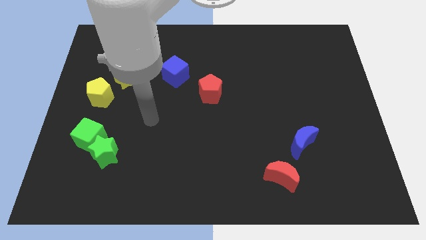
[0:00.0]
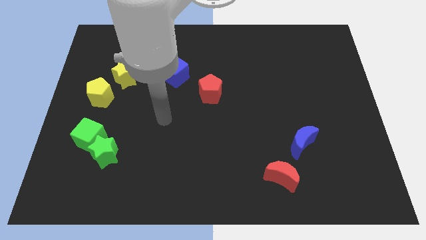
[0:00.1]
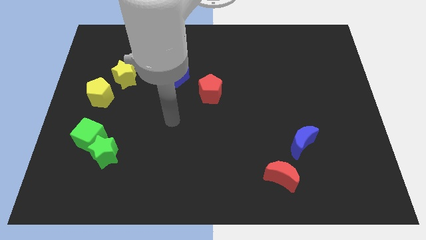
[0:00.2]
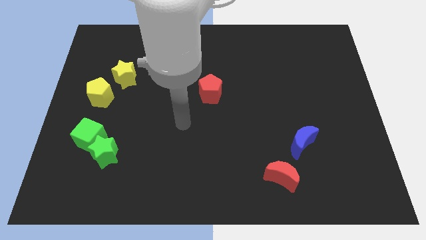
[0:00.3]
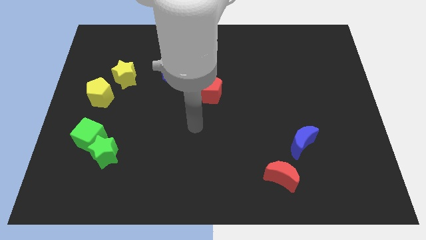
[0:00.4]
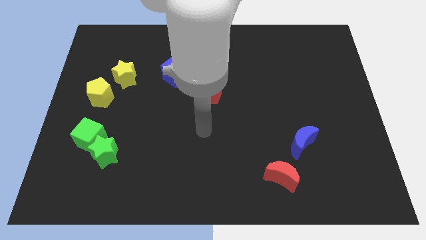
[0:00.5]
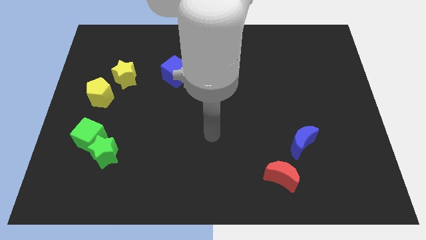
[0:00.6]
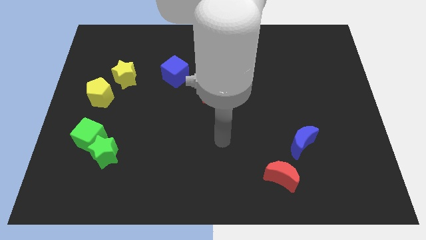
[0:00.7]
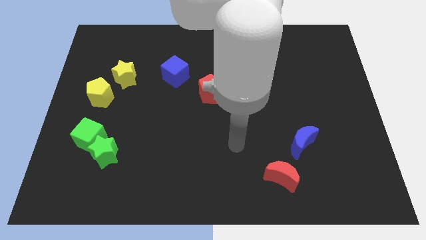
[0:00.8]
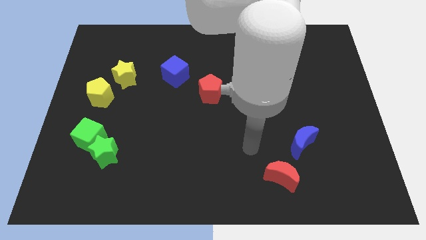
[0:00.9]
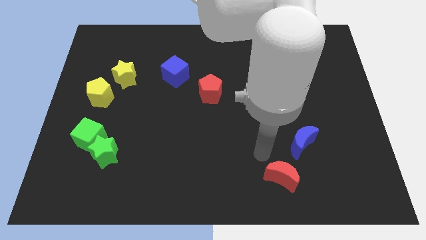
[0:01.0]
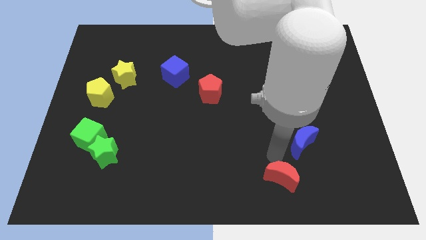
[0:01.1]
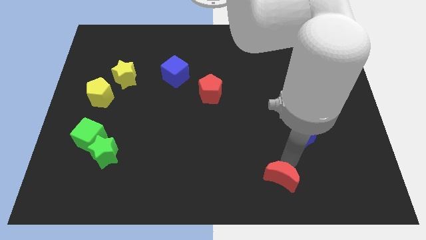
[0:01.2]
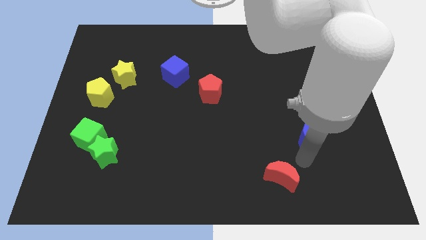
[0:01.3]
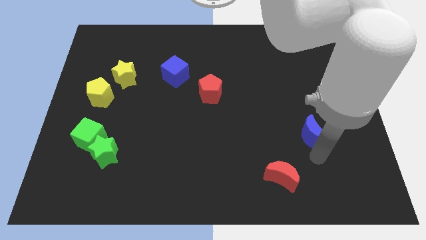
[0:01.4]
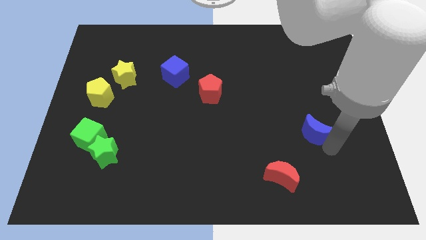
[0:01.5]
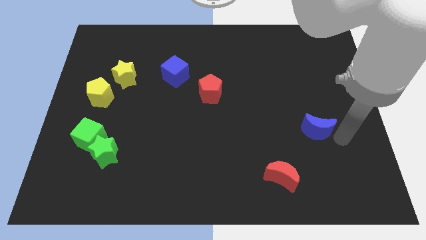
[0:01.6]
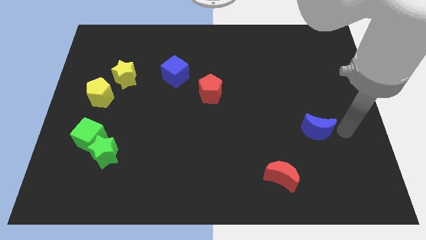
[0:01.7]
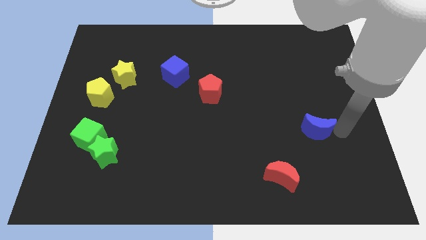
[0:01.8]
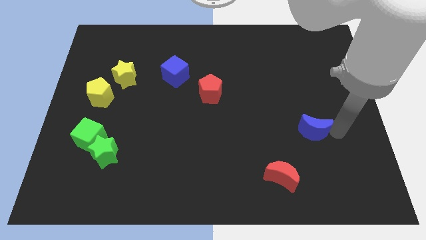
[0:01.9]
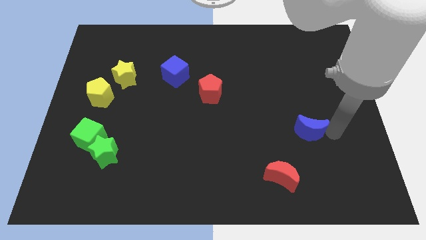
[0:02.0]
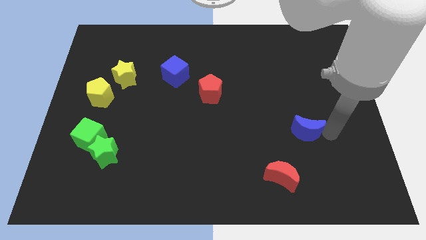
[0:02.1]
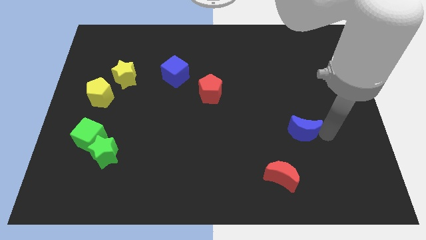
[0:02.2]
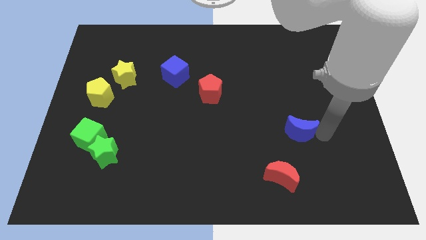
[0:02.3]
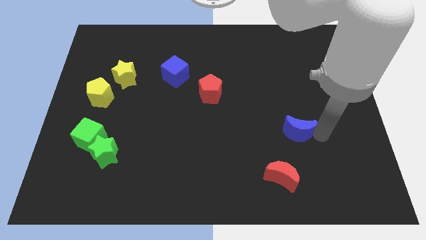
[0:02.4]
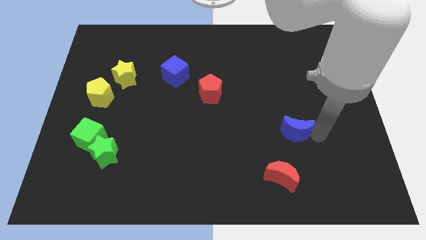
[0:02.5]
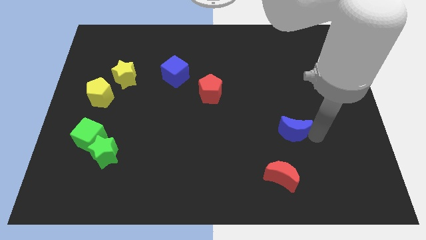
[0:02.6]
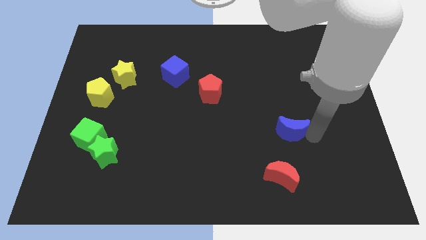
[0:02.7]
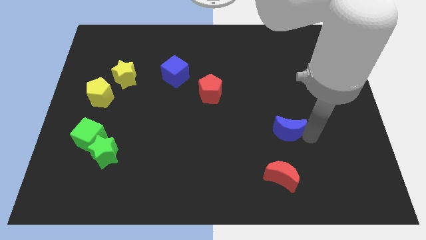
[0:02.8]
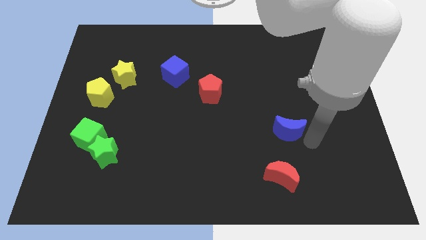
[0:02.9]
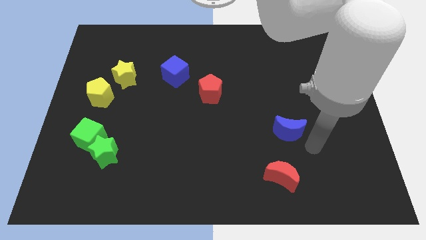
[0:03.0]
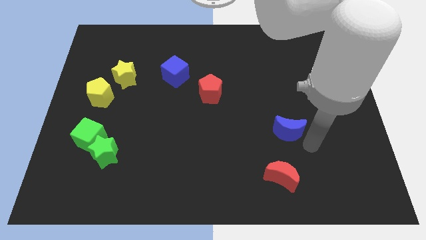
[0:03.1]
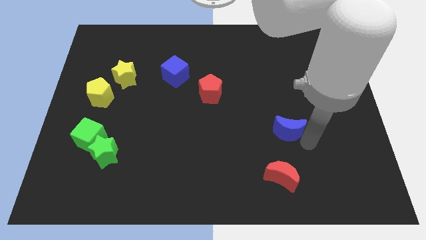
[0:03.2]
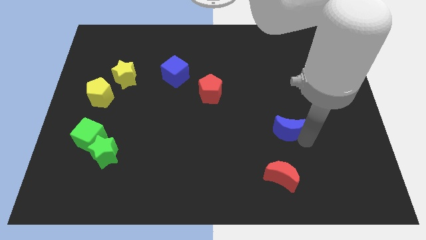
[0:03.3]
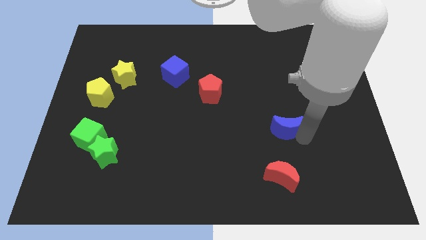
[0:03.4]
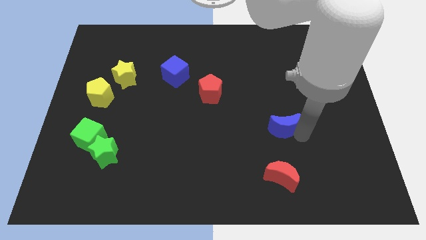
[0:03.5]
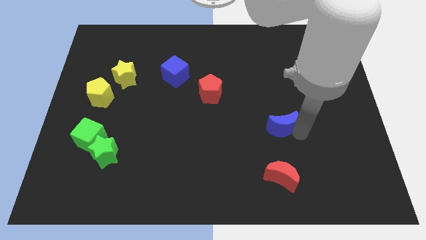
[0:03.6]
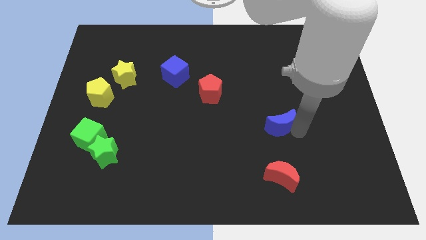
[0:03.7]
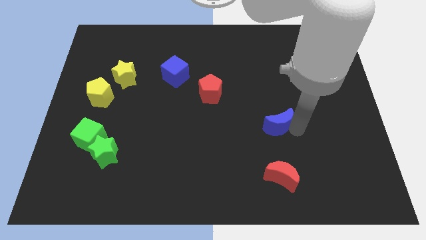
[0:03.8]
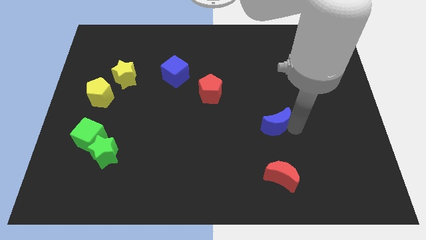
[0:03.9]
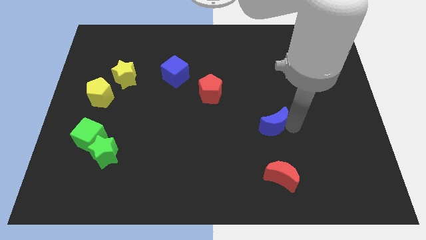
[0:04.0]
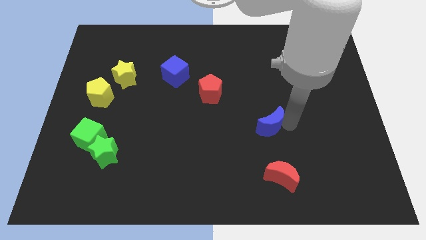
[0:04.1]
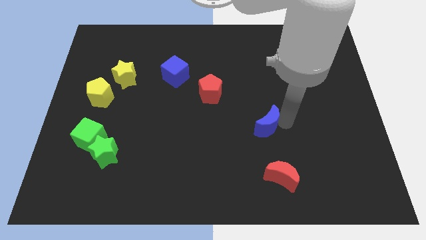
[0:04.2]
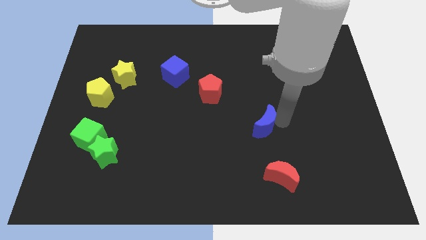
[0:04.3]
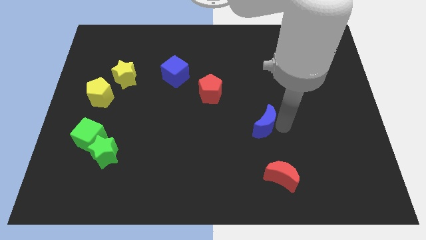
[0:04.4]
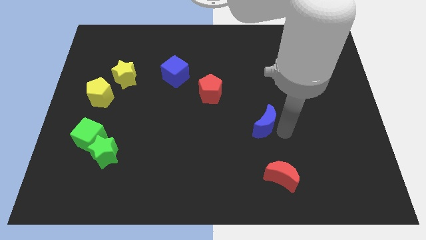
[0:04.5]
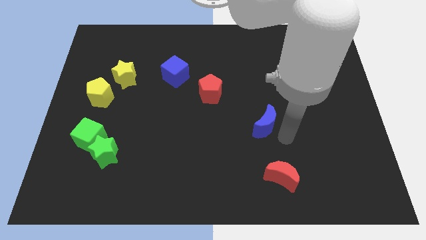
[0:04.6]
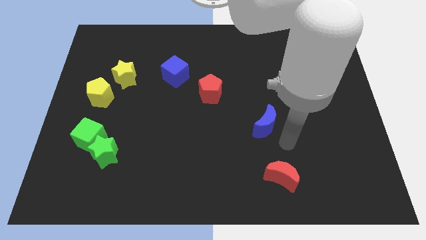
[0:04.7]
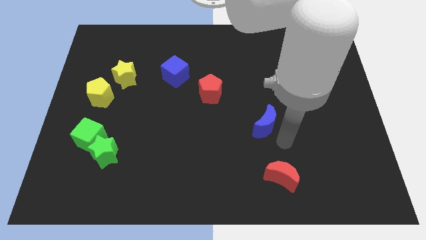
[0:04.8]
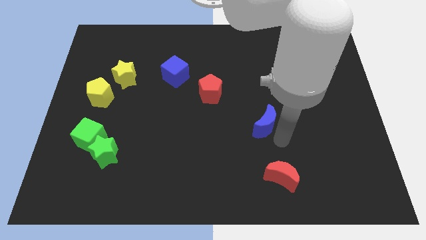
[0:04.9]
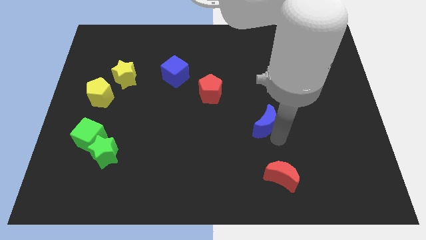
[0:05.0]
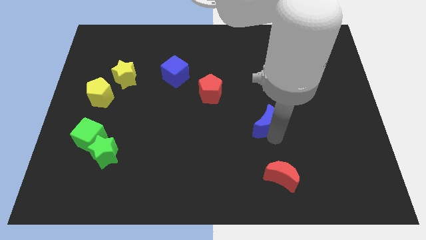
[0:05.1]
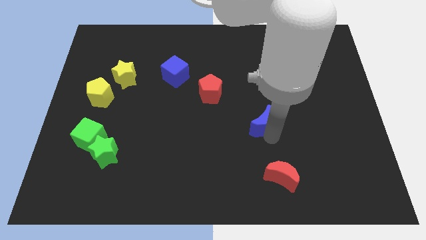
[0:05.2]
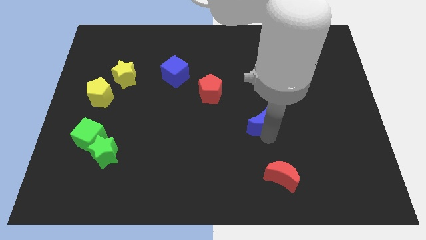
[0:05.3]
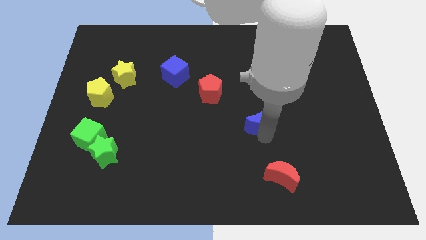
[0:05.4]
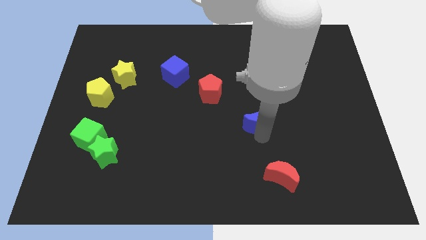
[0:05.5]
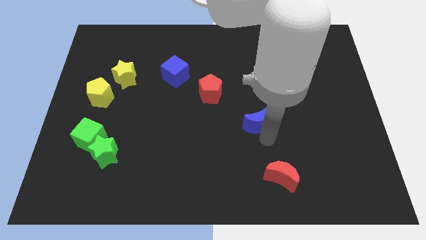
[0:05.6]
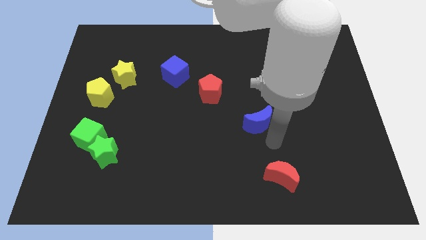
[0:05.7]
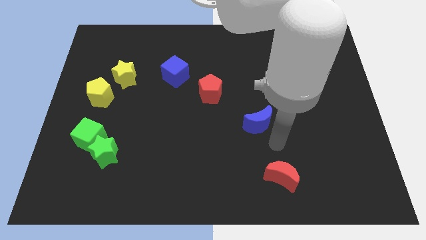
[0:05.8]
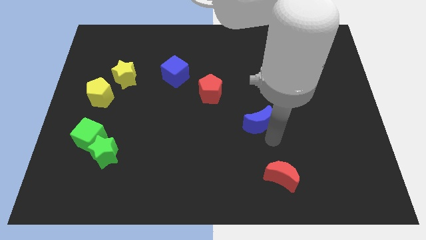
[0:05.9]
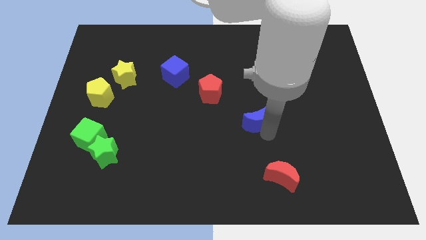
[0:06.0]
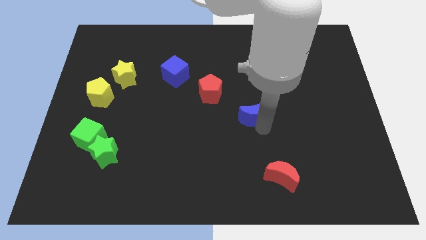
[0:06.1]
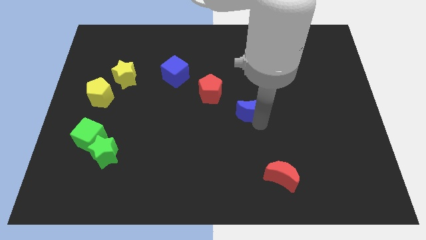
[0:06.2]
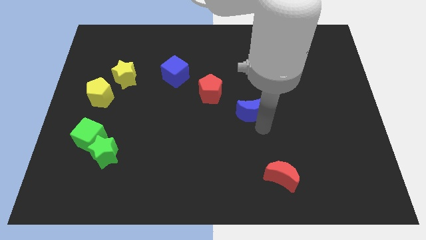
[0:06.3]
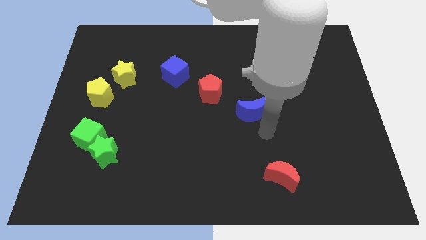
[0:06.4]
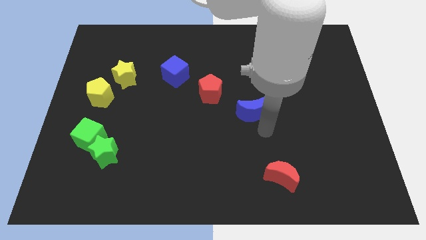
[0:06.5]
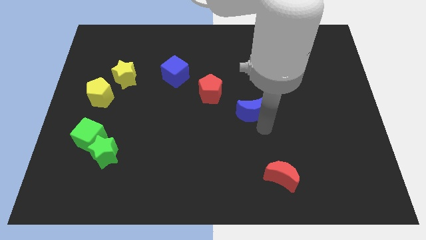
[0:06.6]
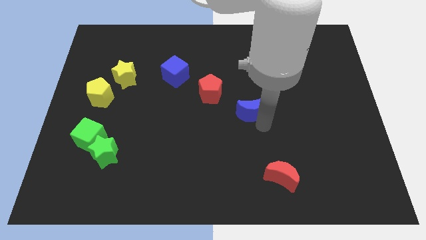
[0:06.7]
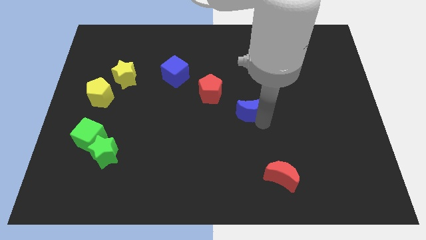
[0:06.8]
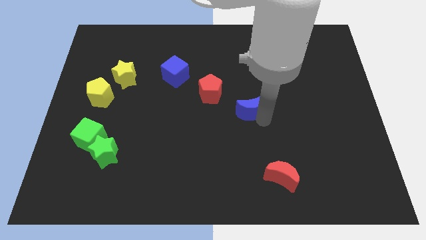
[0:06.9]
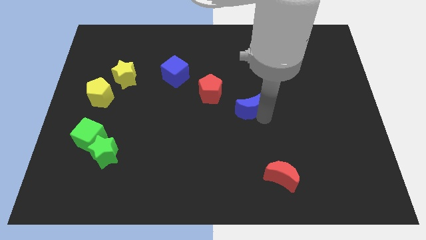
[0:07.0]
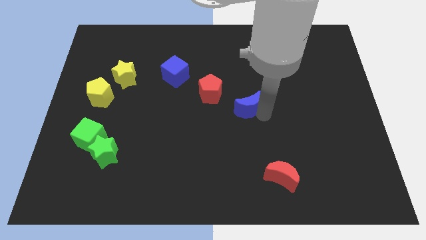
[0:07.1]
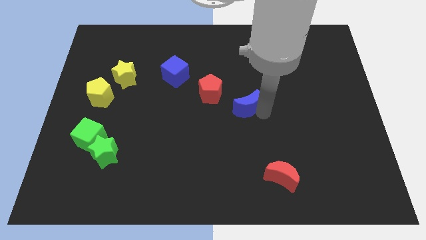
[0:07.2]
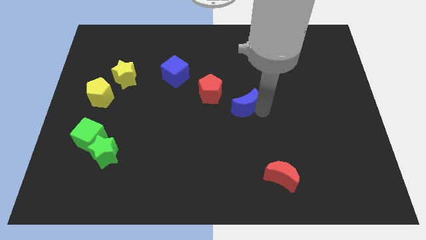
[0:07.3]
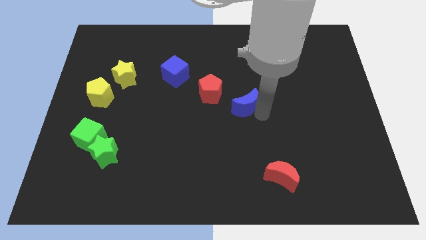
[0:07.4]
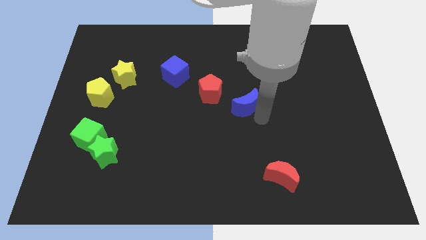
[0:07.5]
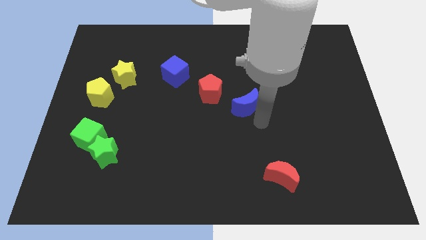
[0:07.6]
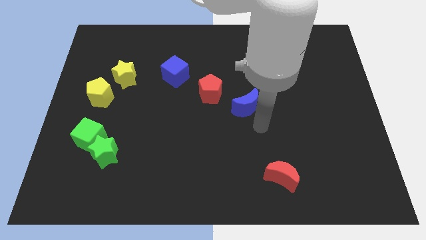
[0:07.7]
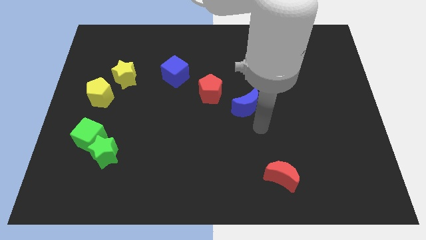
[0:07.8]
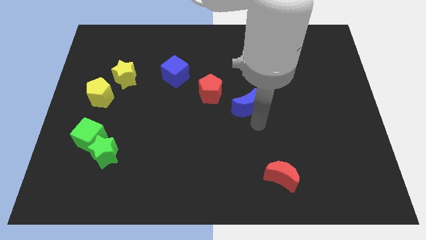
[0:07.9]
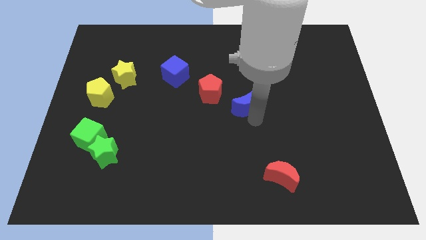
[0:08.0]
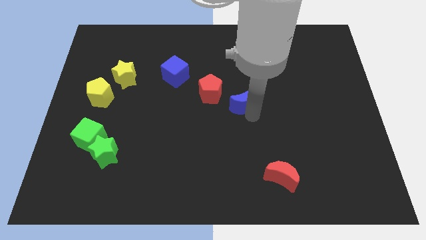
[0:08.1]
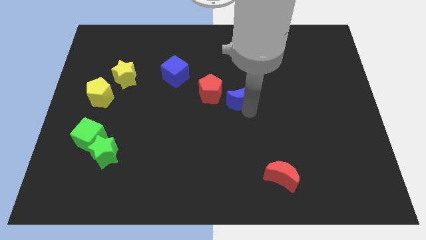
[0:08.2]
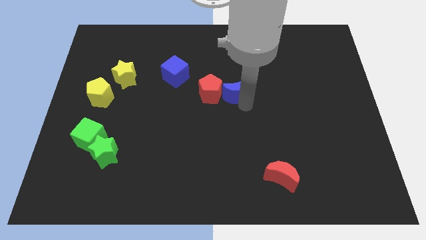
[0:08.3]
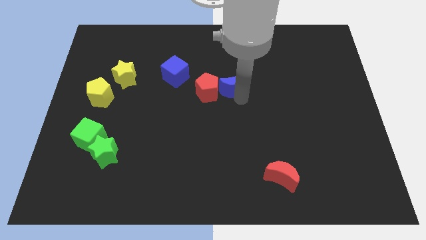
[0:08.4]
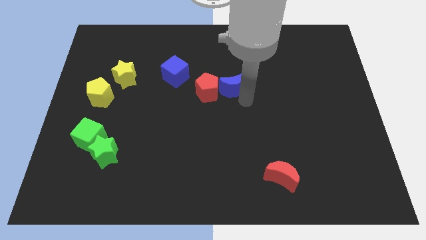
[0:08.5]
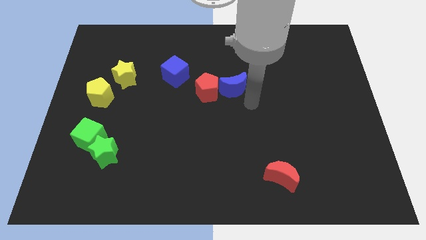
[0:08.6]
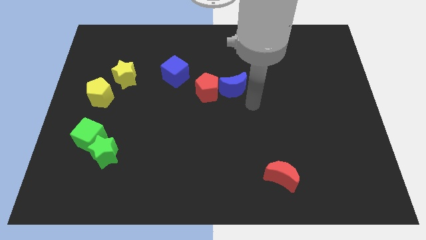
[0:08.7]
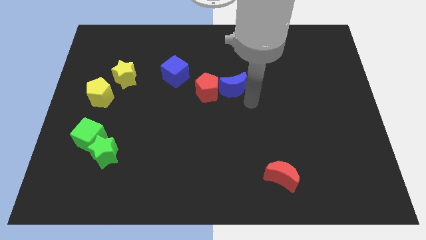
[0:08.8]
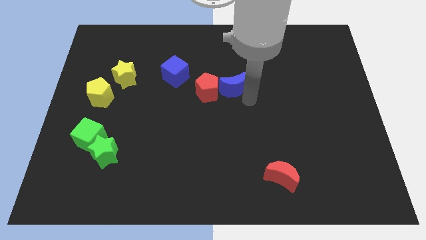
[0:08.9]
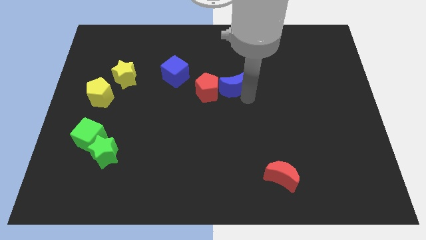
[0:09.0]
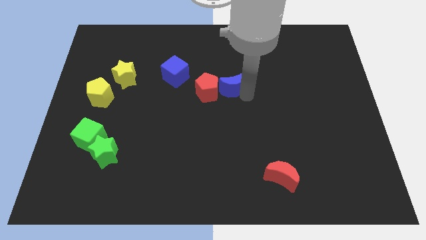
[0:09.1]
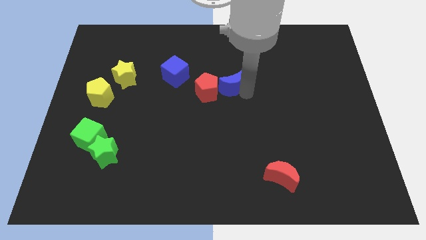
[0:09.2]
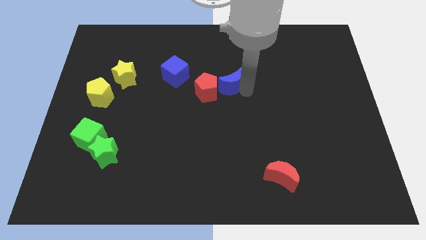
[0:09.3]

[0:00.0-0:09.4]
slide the blue moon right of the blue cube
